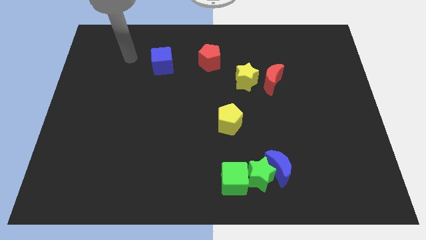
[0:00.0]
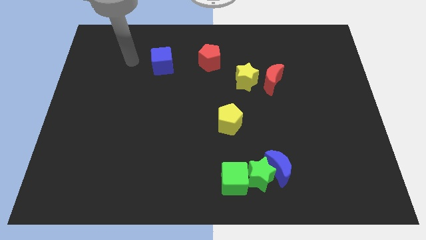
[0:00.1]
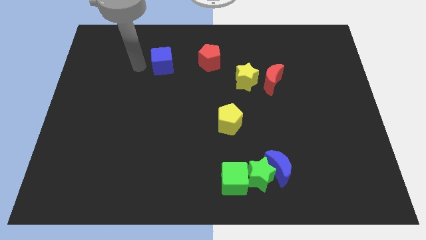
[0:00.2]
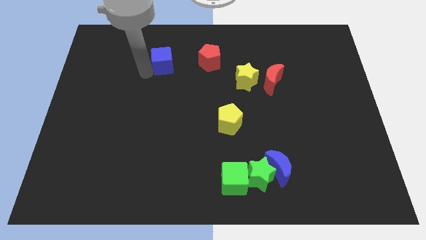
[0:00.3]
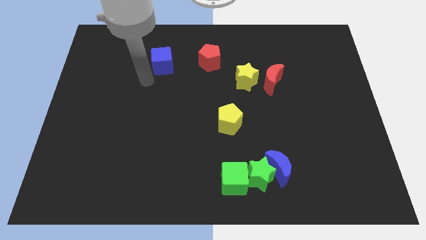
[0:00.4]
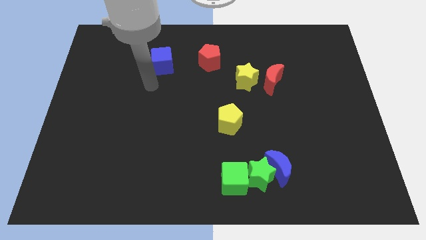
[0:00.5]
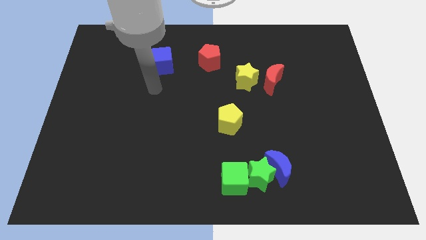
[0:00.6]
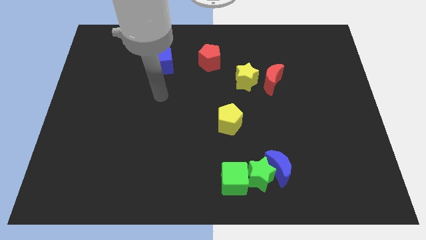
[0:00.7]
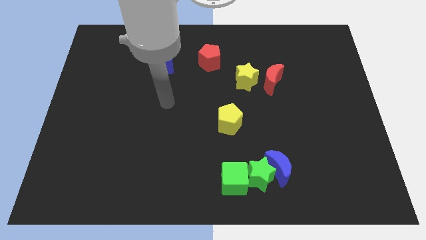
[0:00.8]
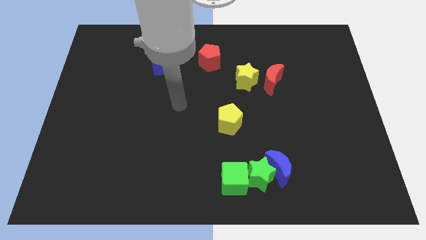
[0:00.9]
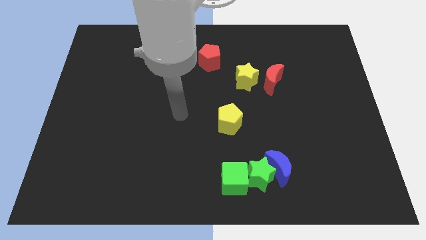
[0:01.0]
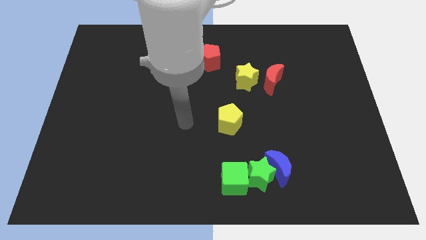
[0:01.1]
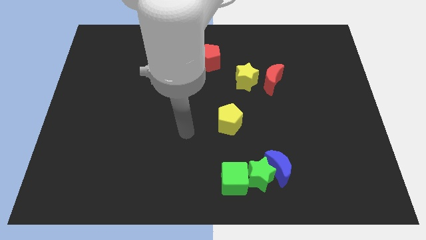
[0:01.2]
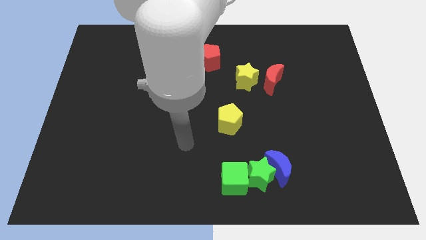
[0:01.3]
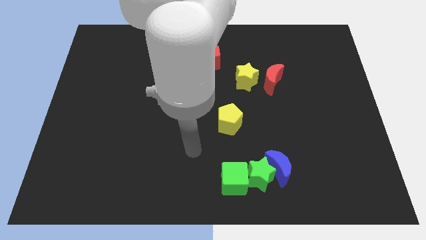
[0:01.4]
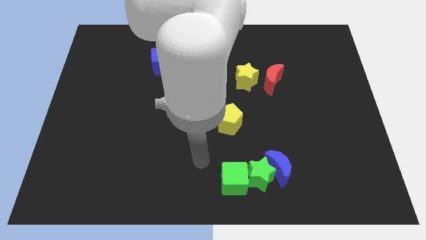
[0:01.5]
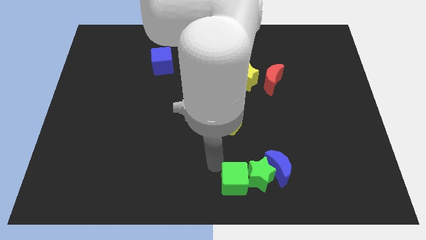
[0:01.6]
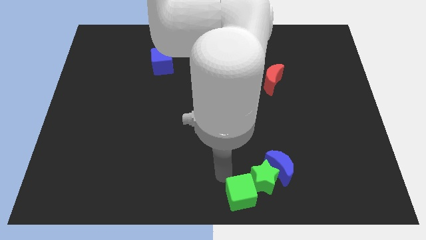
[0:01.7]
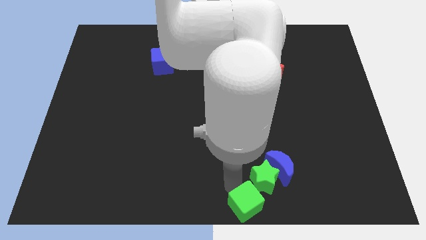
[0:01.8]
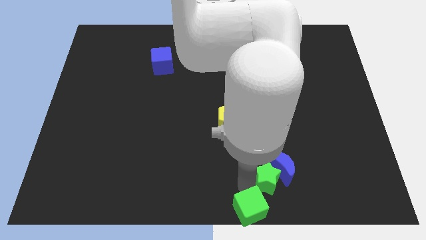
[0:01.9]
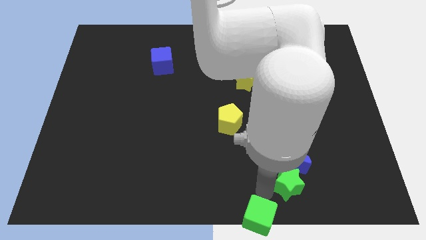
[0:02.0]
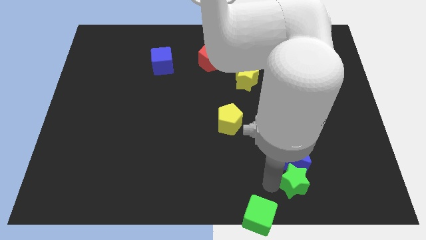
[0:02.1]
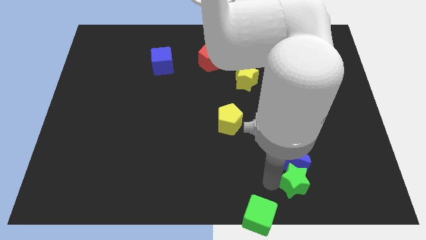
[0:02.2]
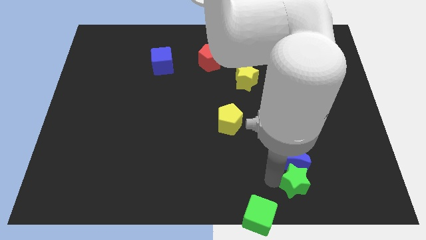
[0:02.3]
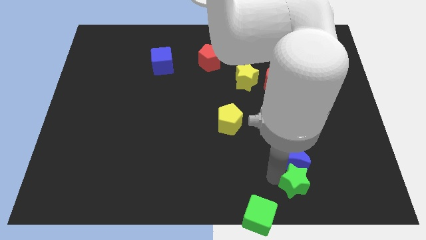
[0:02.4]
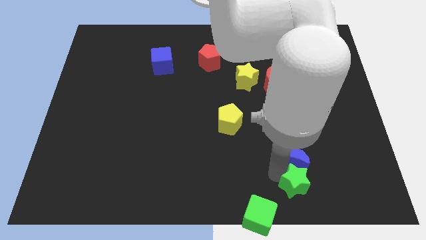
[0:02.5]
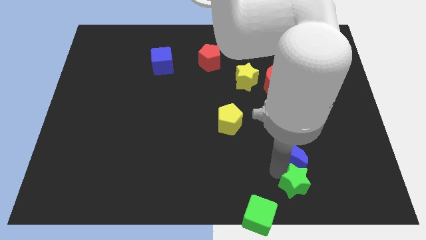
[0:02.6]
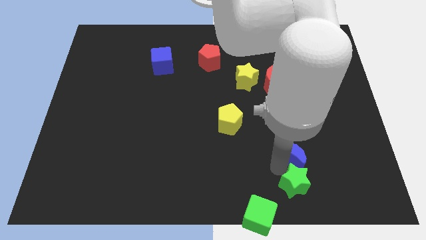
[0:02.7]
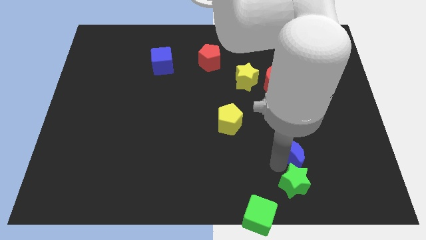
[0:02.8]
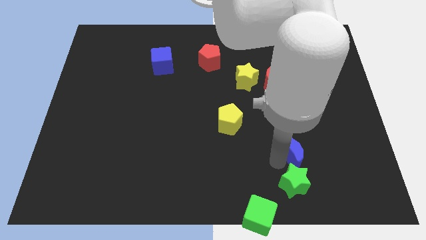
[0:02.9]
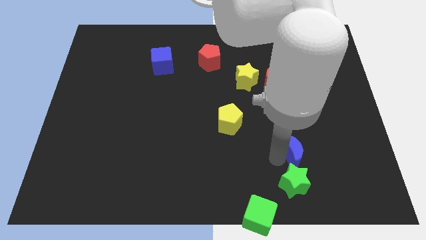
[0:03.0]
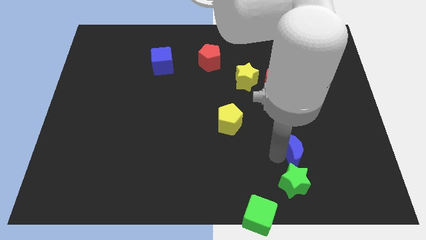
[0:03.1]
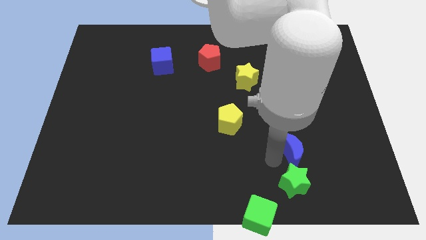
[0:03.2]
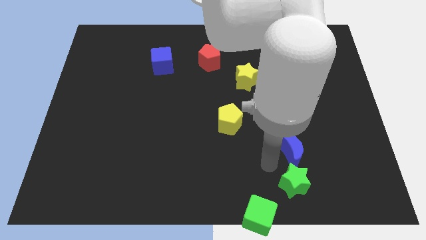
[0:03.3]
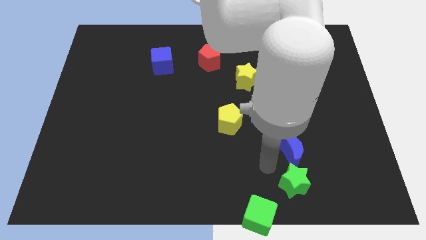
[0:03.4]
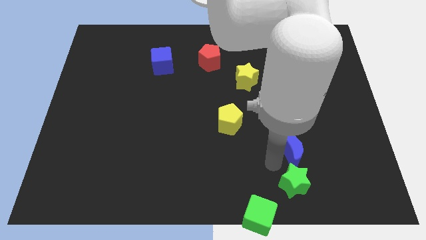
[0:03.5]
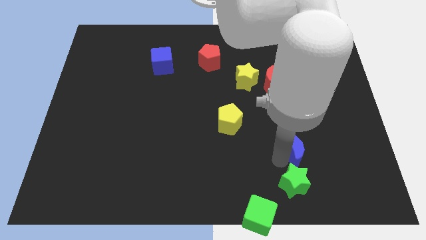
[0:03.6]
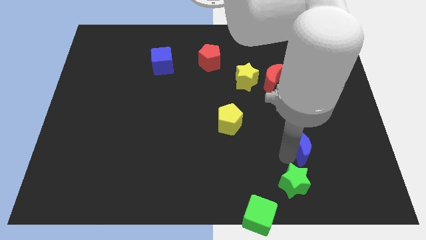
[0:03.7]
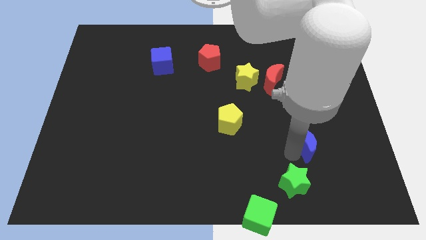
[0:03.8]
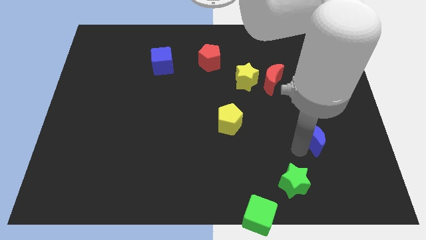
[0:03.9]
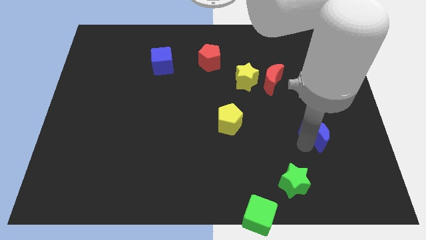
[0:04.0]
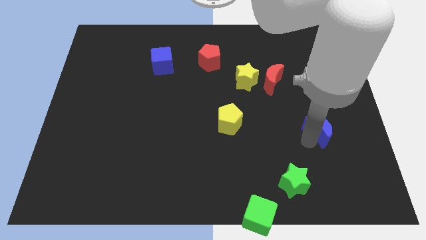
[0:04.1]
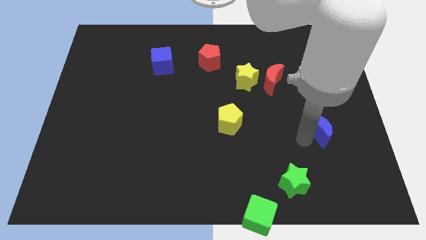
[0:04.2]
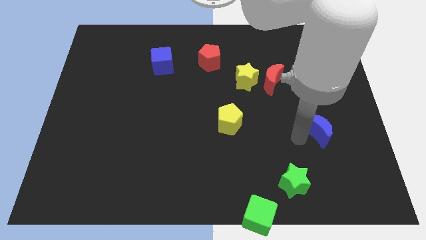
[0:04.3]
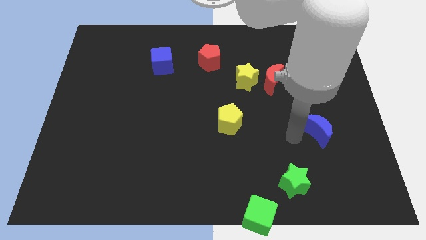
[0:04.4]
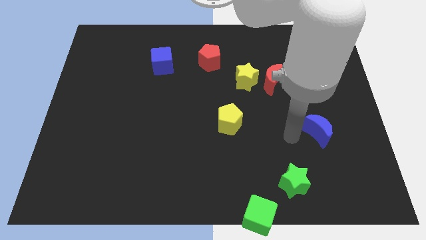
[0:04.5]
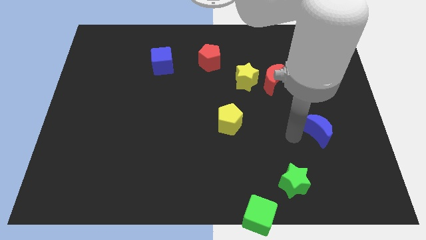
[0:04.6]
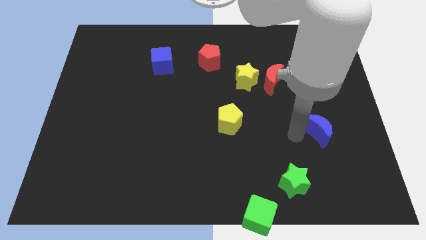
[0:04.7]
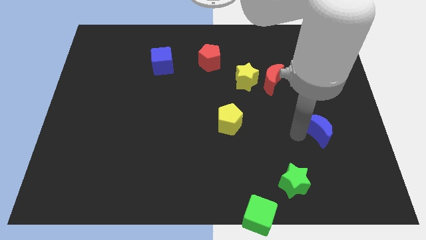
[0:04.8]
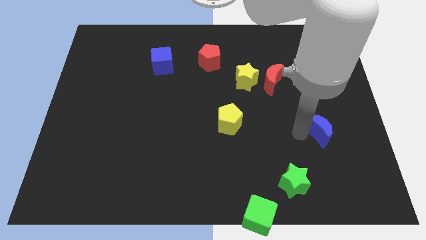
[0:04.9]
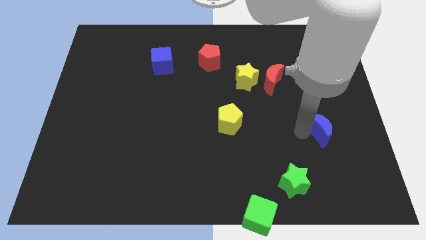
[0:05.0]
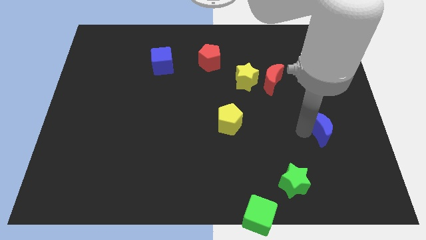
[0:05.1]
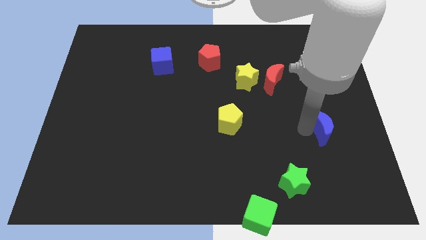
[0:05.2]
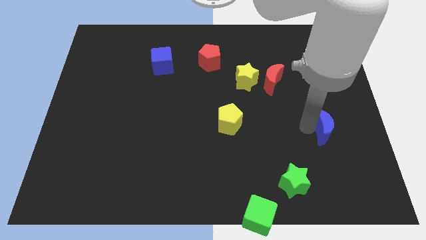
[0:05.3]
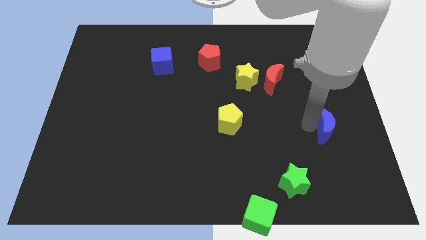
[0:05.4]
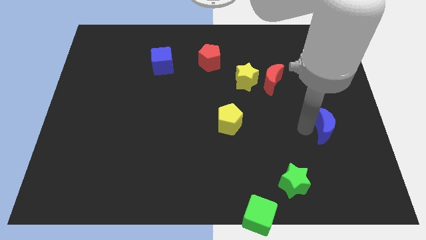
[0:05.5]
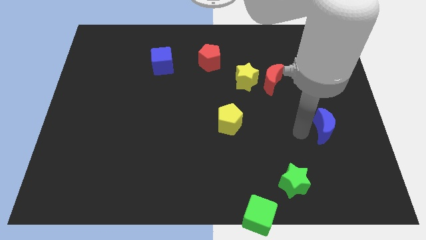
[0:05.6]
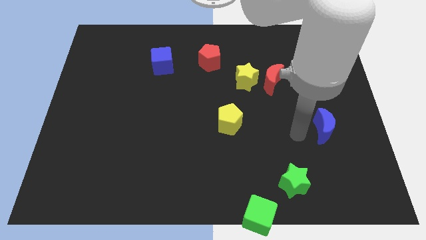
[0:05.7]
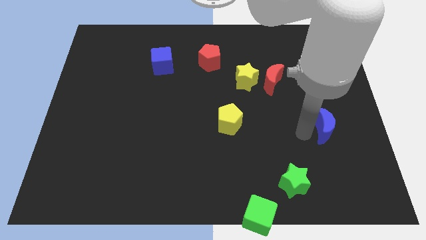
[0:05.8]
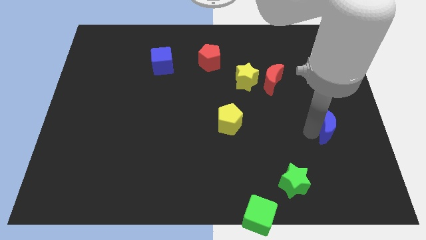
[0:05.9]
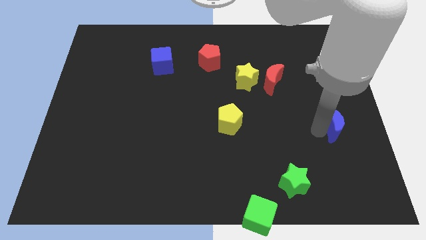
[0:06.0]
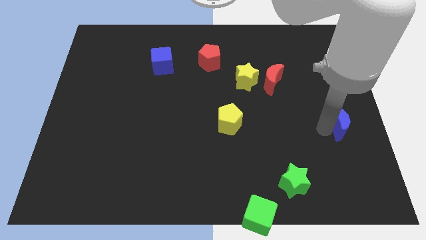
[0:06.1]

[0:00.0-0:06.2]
put the blue moon to the center right
